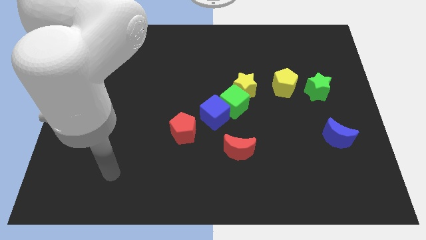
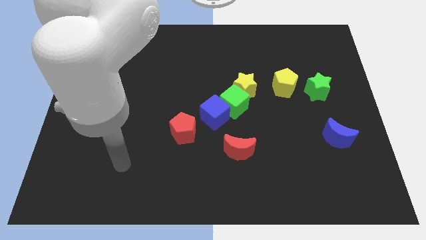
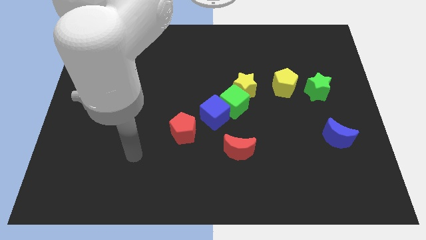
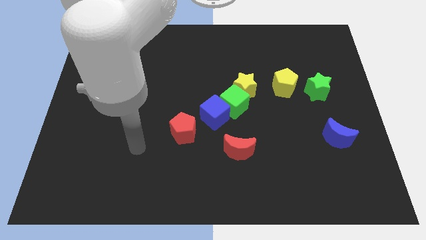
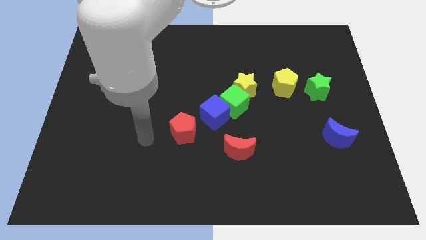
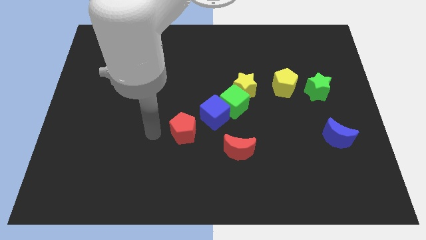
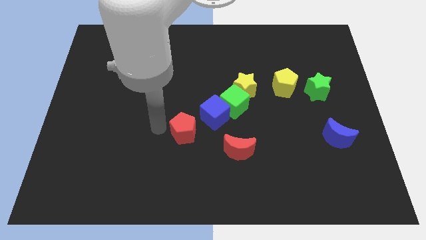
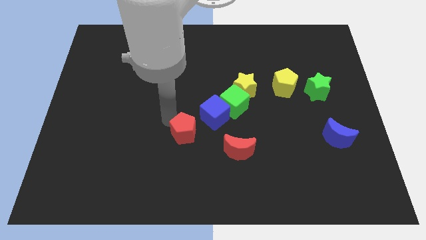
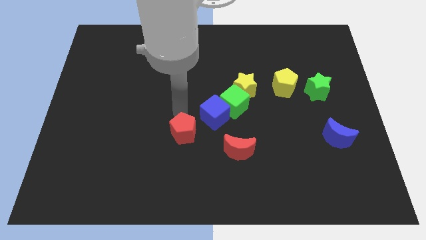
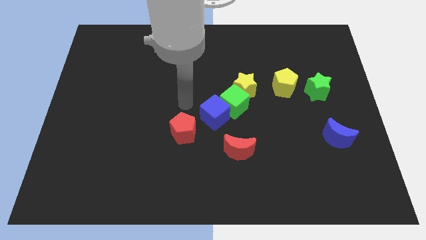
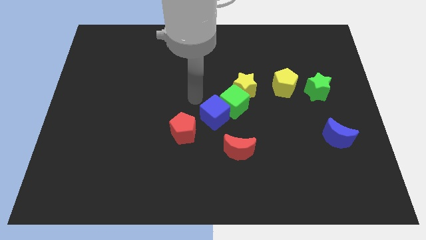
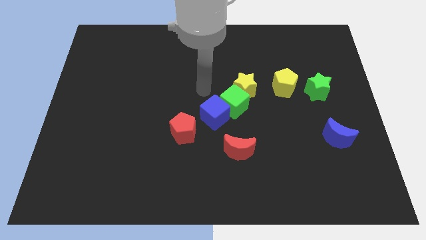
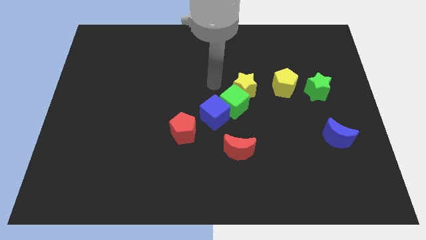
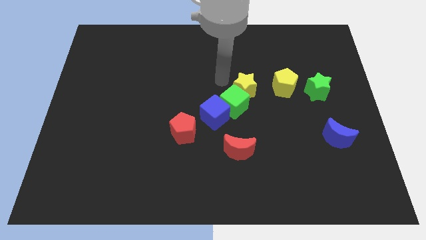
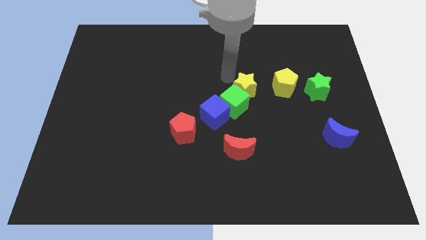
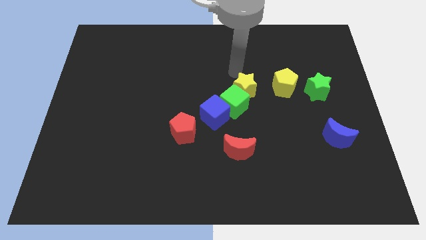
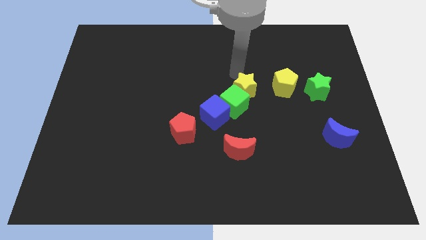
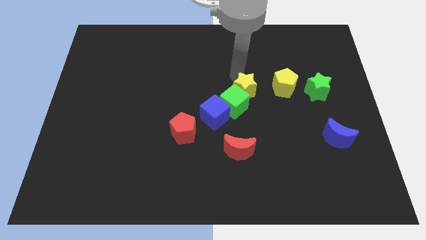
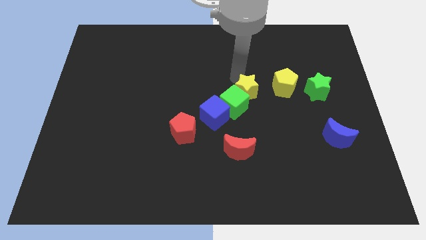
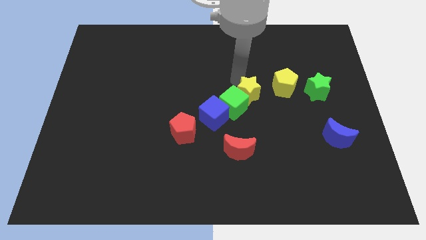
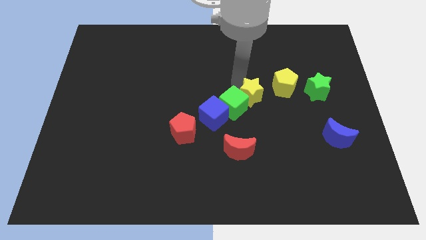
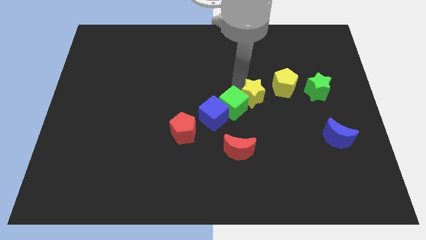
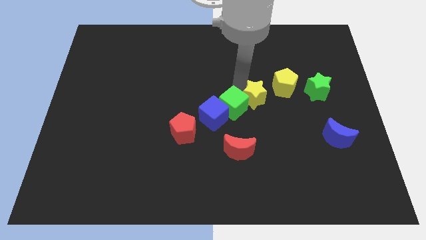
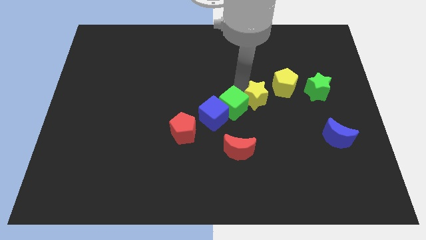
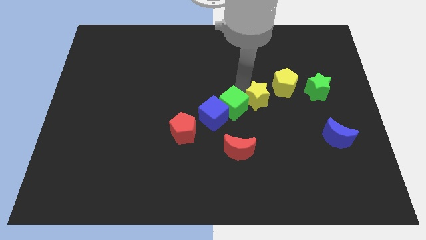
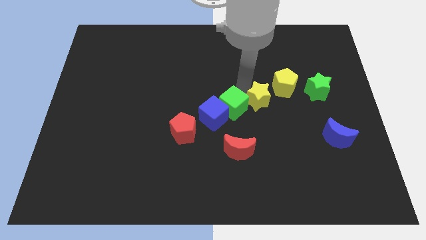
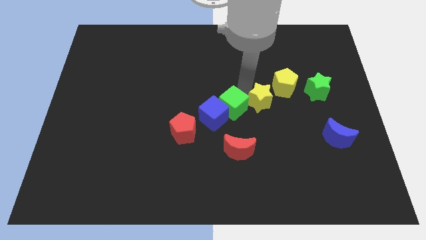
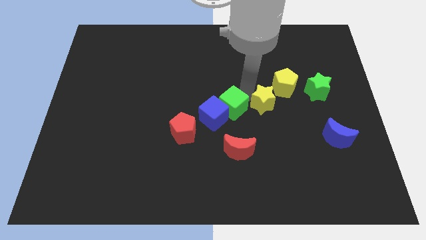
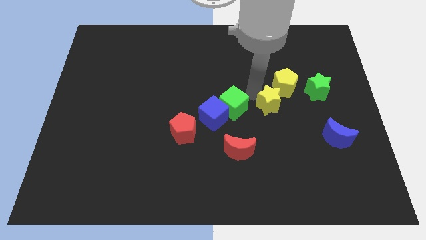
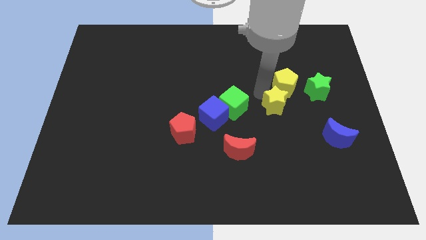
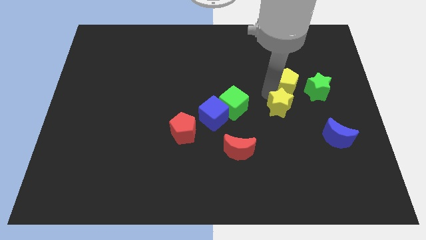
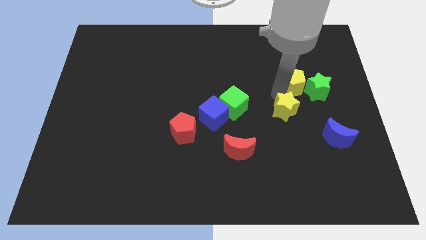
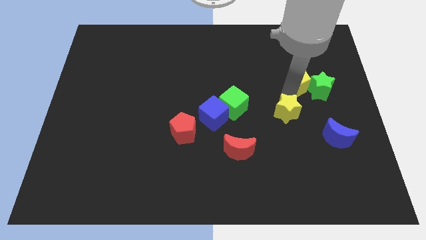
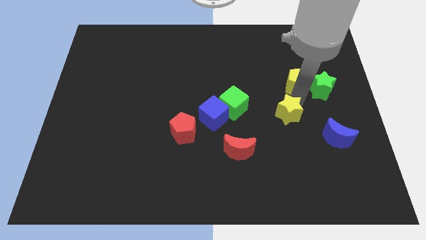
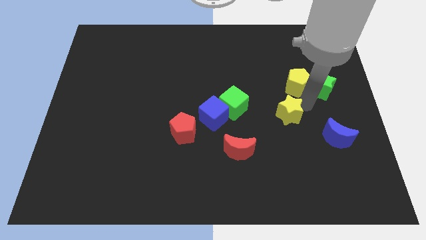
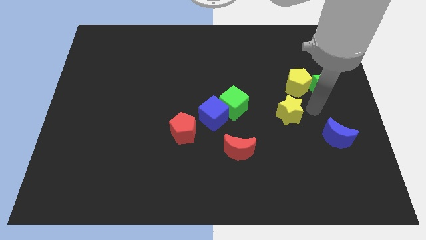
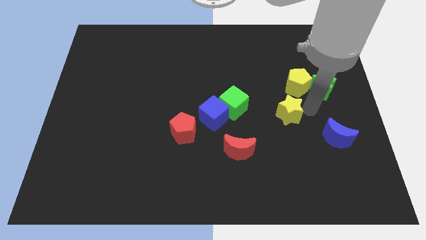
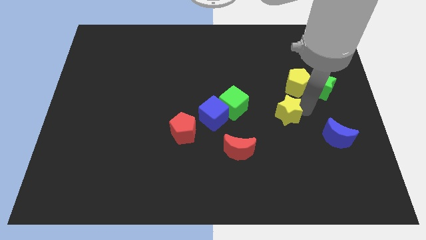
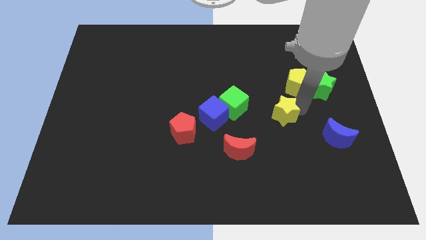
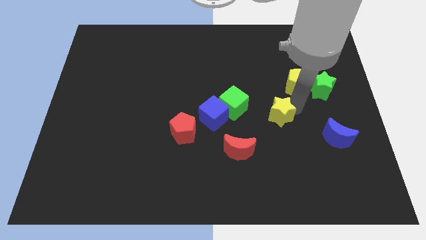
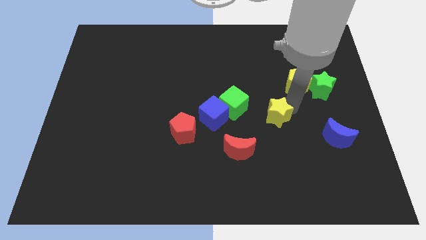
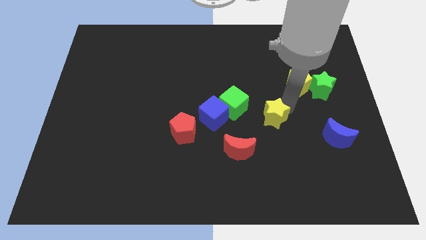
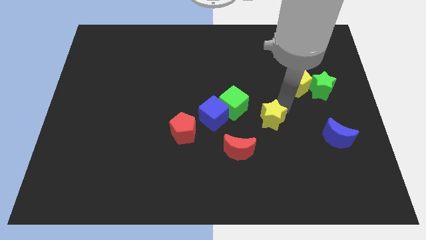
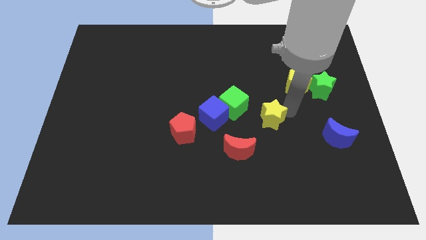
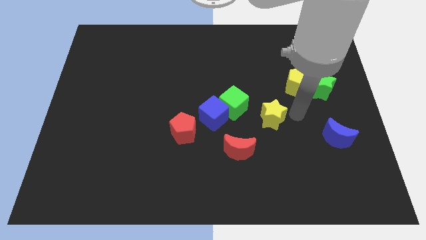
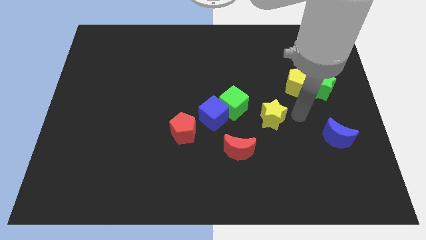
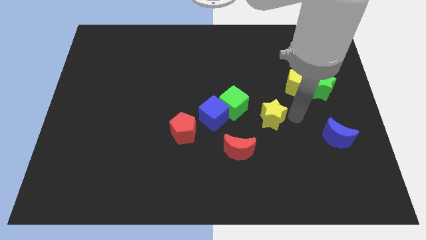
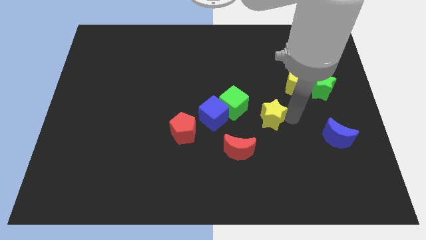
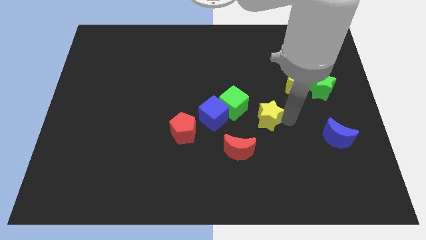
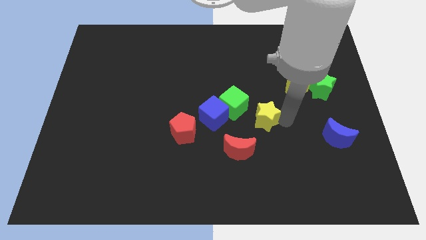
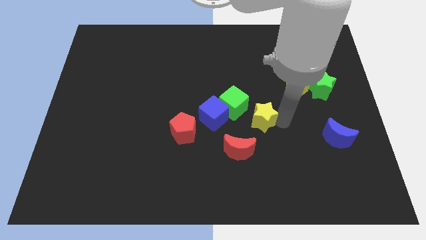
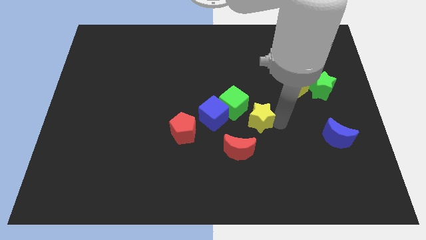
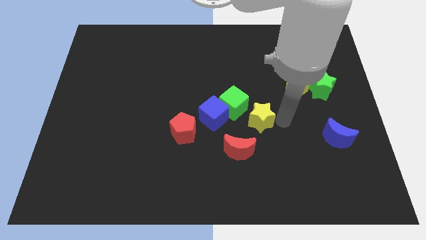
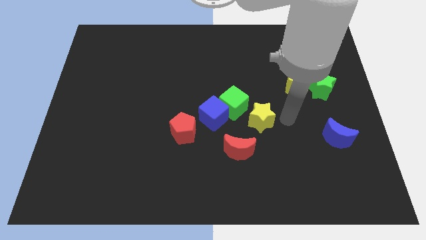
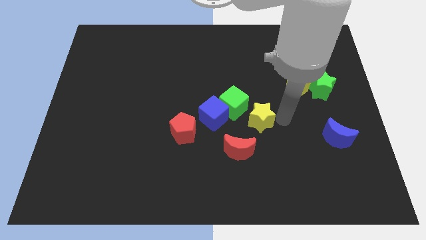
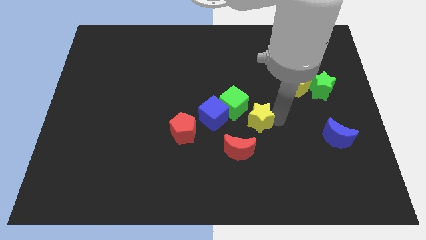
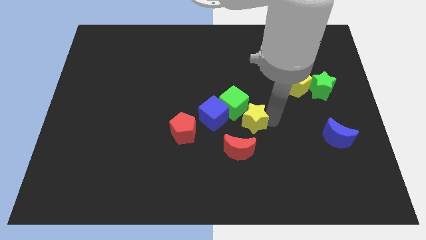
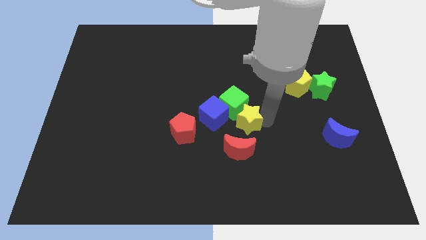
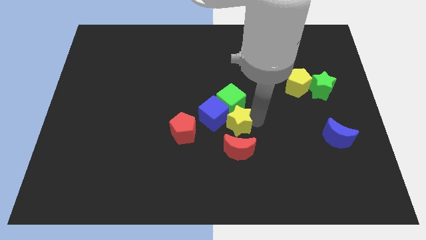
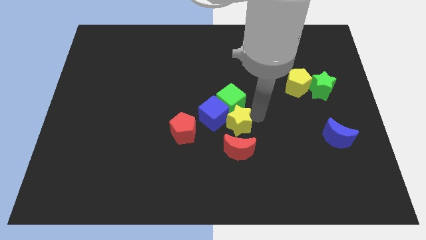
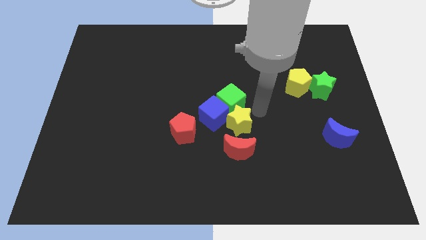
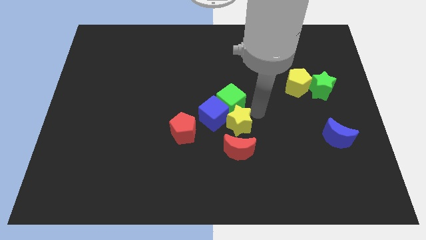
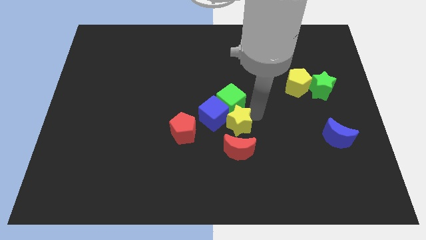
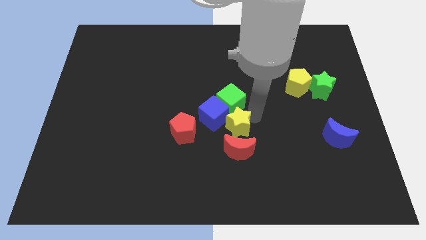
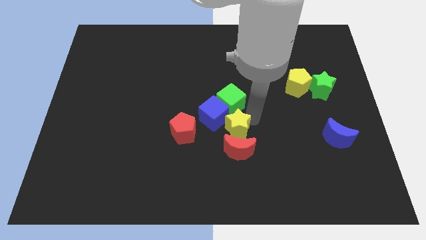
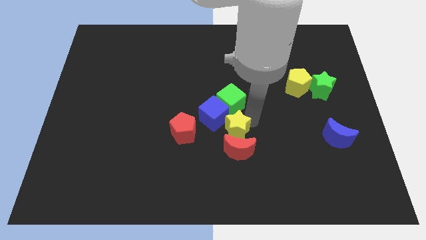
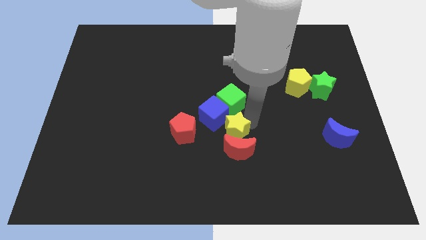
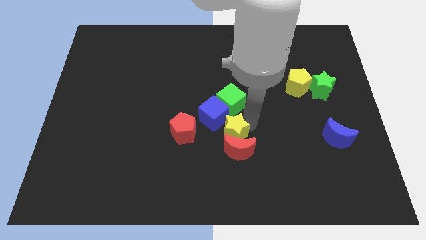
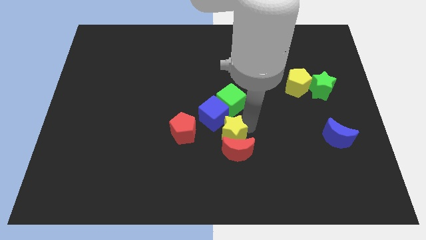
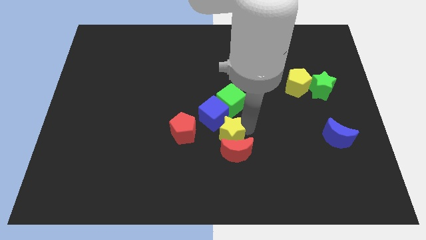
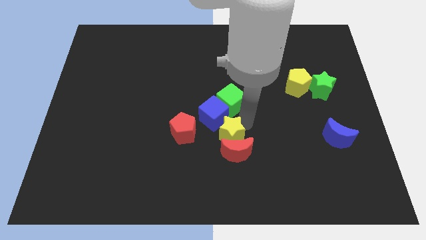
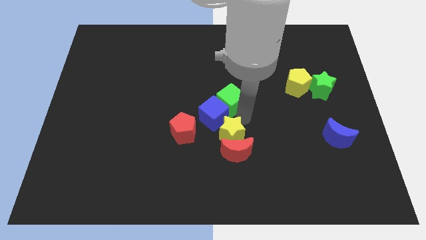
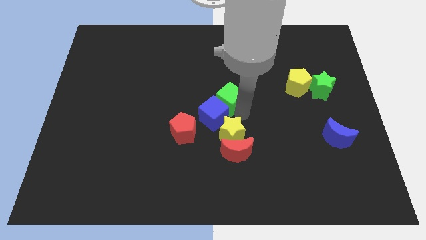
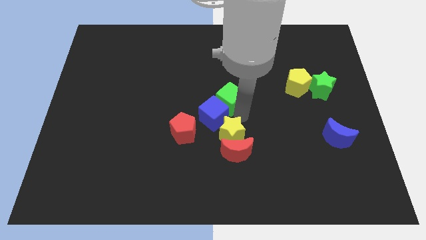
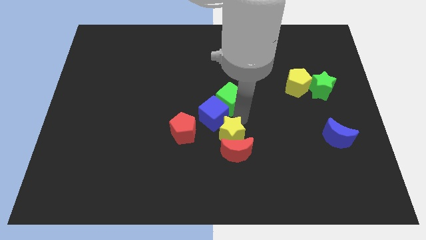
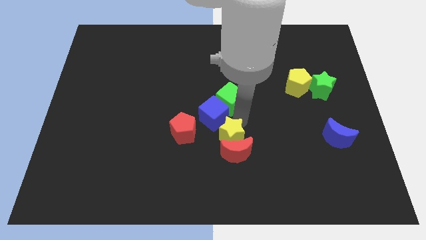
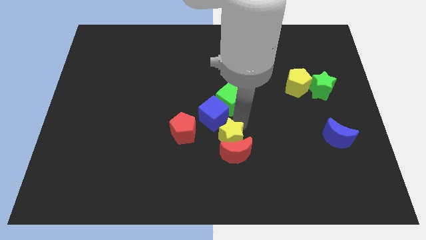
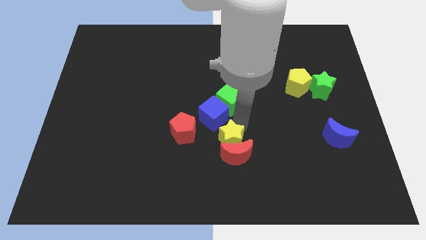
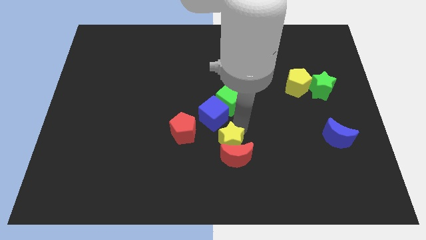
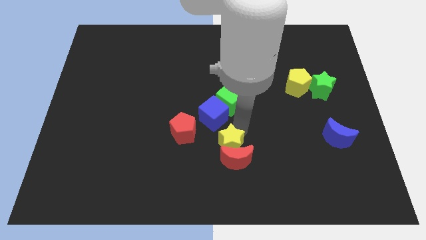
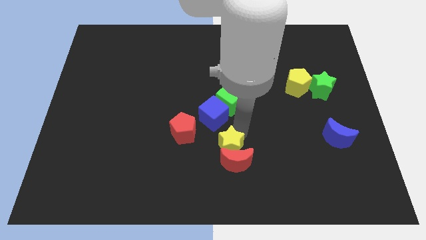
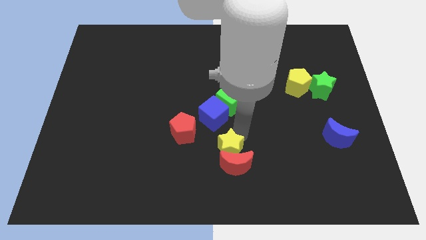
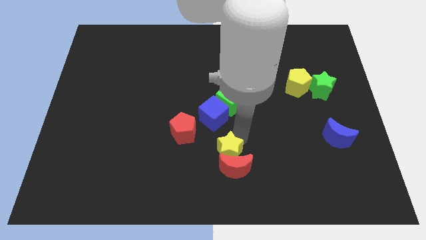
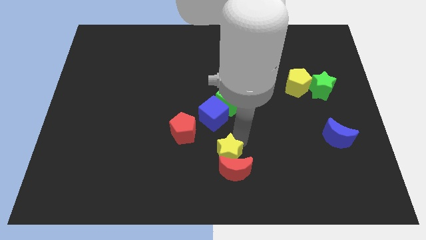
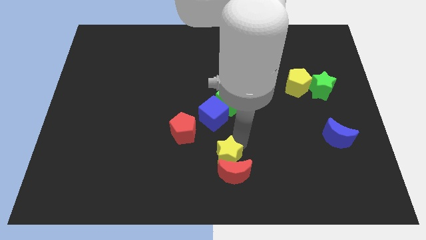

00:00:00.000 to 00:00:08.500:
slide the yellow star to the bottom
